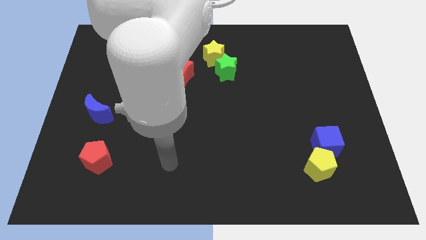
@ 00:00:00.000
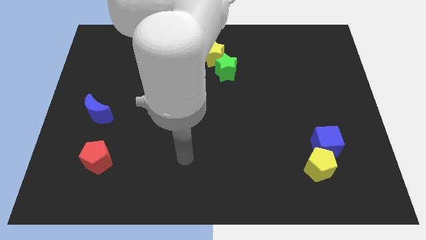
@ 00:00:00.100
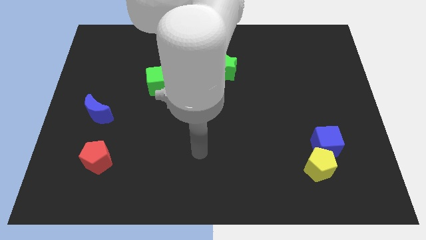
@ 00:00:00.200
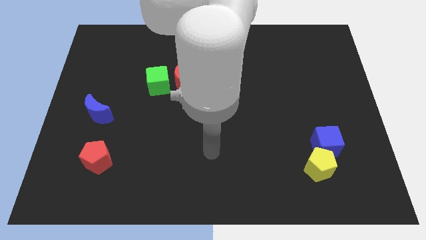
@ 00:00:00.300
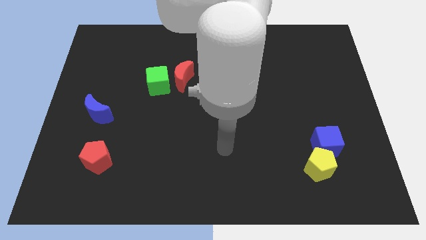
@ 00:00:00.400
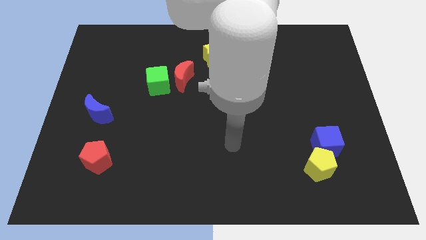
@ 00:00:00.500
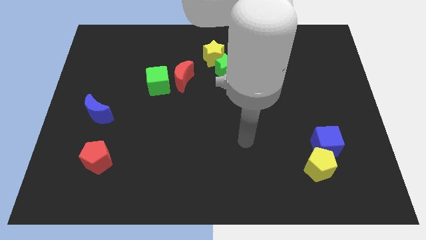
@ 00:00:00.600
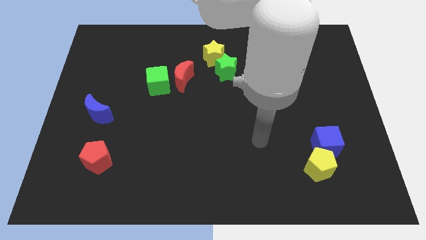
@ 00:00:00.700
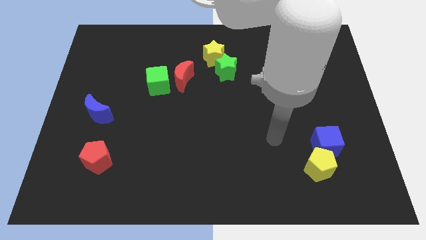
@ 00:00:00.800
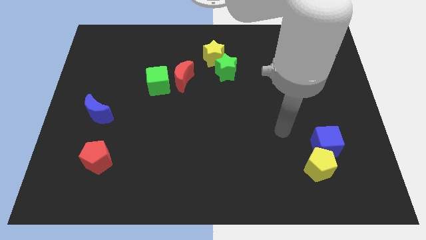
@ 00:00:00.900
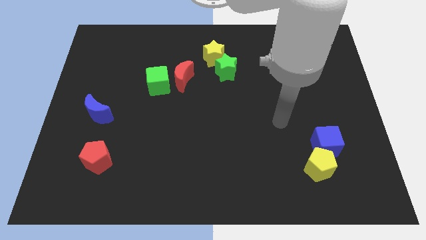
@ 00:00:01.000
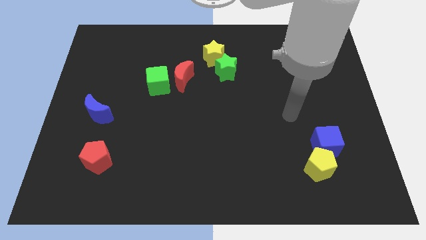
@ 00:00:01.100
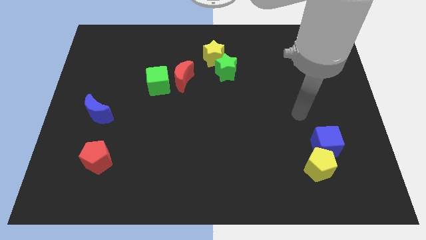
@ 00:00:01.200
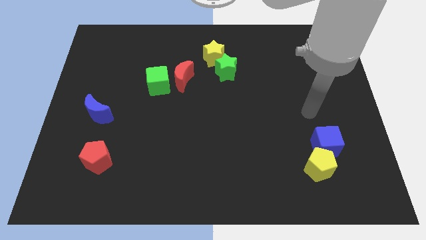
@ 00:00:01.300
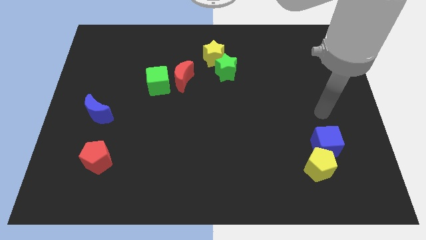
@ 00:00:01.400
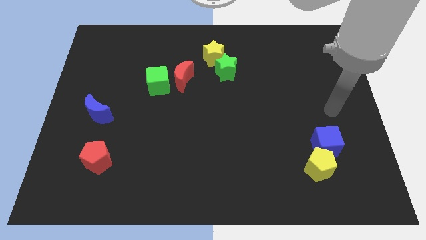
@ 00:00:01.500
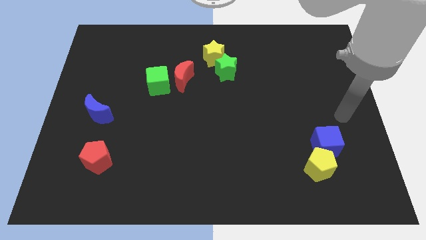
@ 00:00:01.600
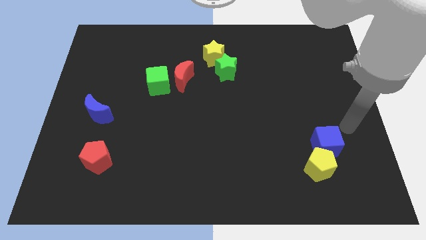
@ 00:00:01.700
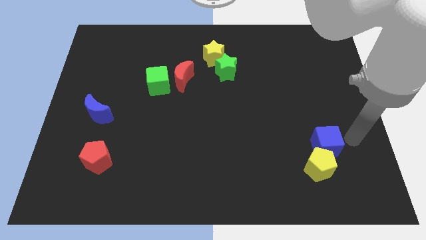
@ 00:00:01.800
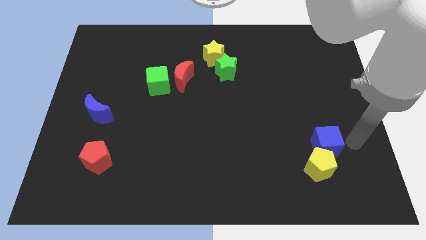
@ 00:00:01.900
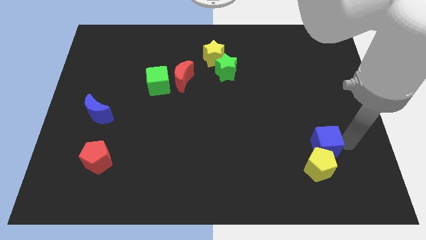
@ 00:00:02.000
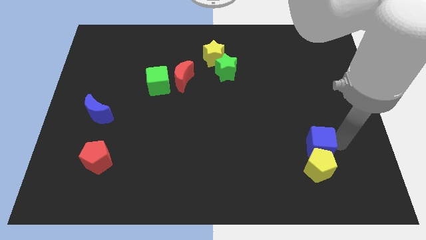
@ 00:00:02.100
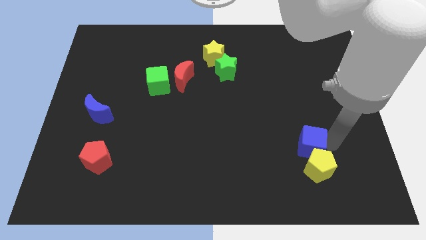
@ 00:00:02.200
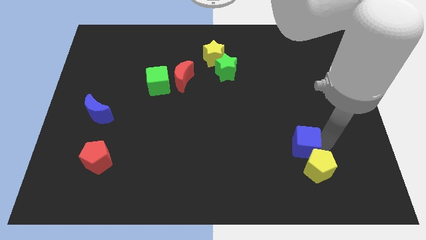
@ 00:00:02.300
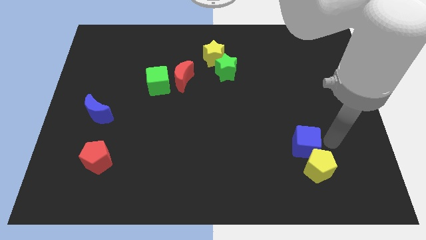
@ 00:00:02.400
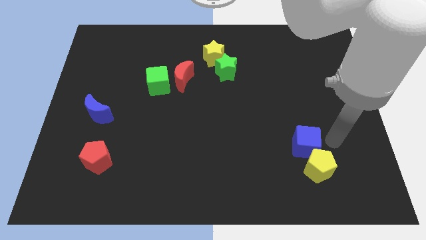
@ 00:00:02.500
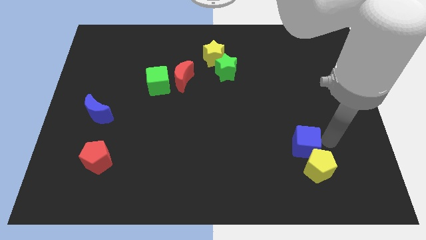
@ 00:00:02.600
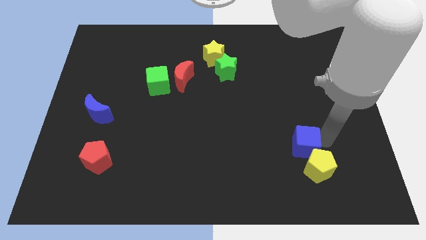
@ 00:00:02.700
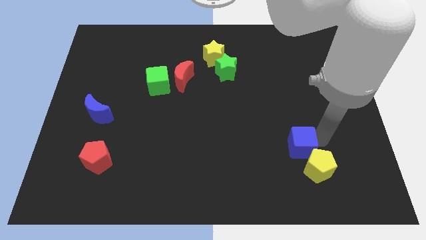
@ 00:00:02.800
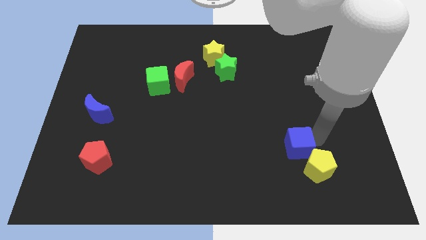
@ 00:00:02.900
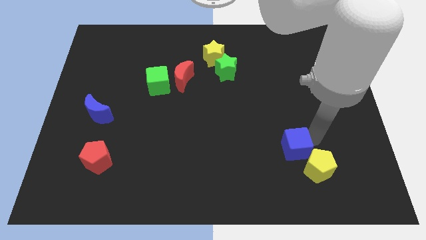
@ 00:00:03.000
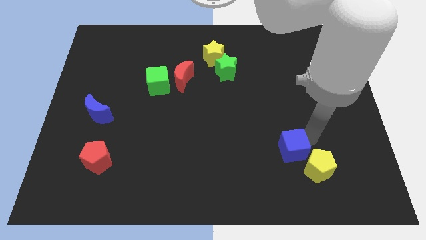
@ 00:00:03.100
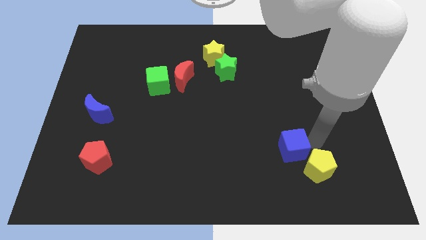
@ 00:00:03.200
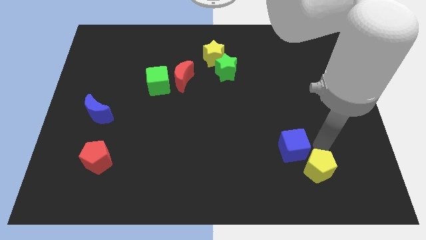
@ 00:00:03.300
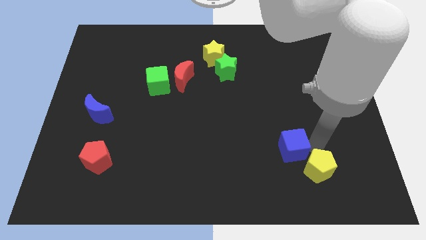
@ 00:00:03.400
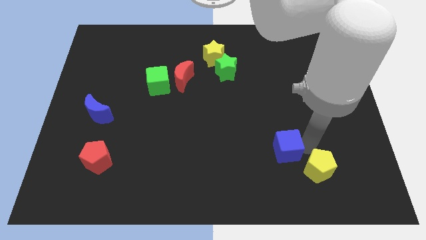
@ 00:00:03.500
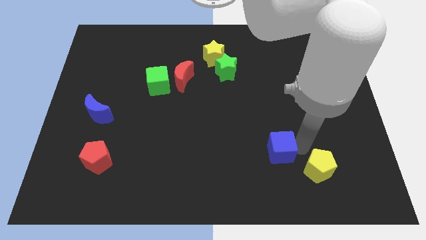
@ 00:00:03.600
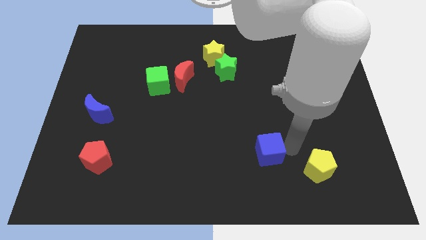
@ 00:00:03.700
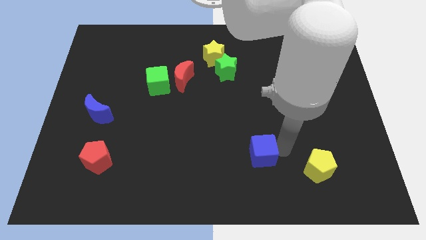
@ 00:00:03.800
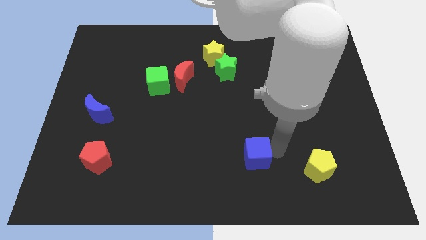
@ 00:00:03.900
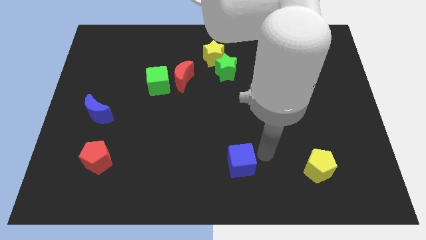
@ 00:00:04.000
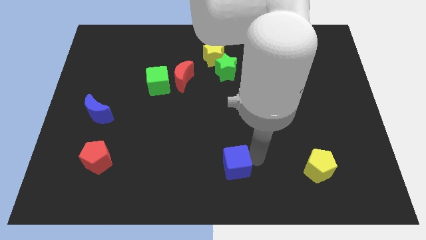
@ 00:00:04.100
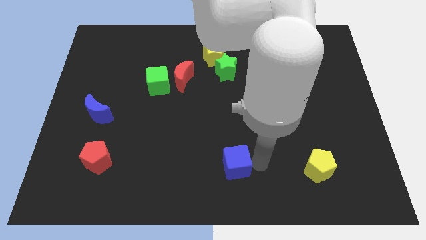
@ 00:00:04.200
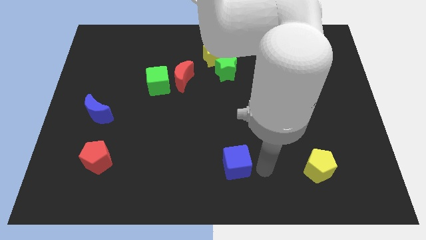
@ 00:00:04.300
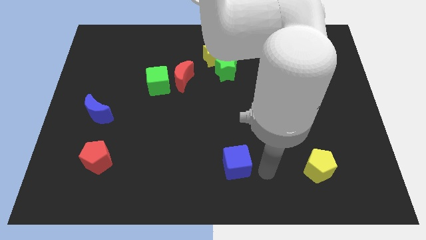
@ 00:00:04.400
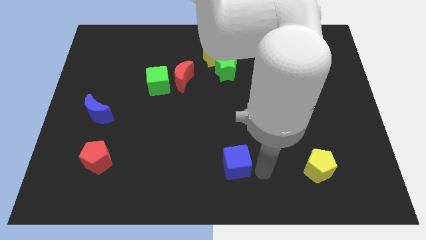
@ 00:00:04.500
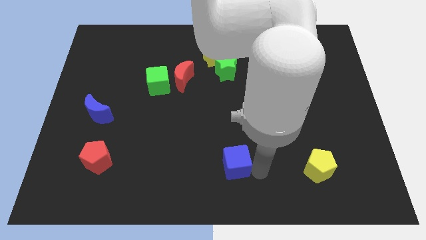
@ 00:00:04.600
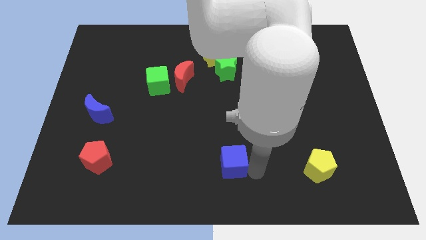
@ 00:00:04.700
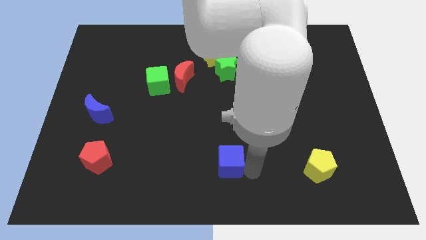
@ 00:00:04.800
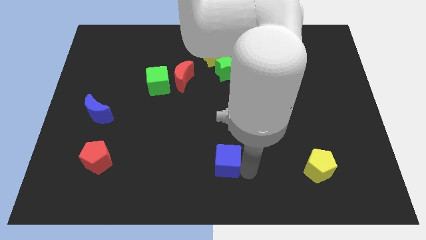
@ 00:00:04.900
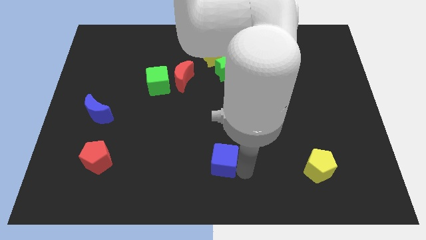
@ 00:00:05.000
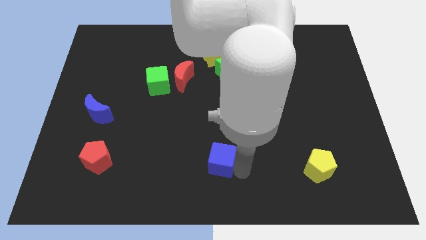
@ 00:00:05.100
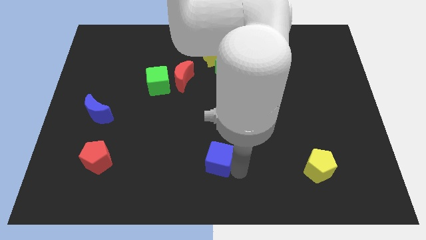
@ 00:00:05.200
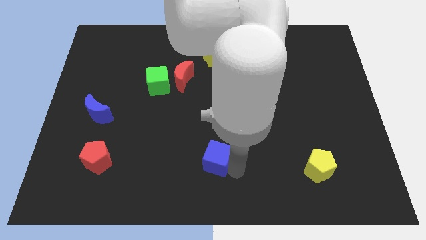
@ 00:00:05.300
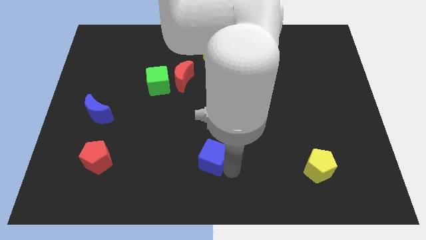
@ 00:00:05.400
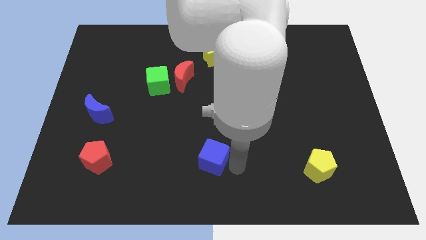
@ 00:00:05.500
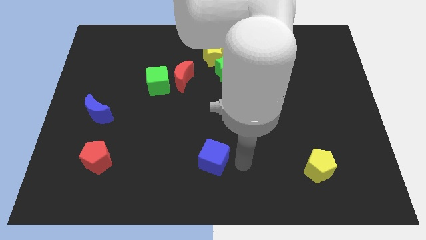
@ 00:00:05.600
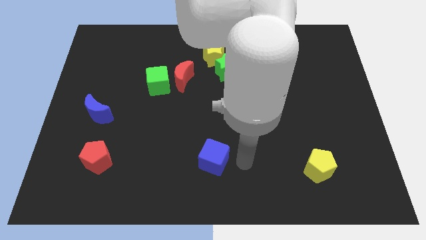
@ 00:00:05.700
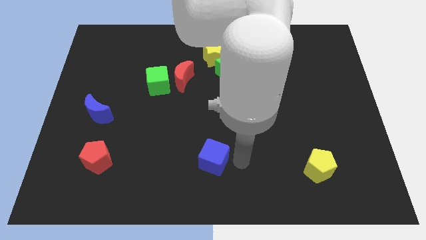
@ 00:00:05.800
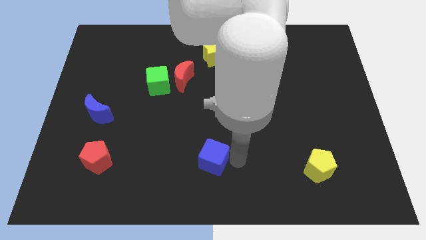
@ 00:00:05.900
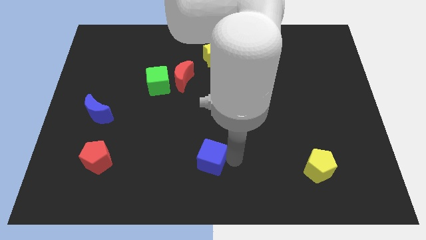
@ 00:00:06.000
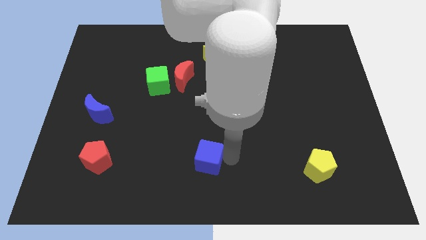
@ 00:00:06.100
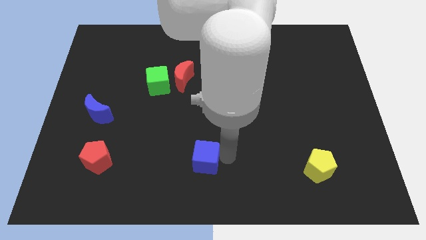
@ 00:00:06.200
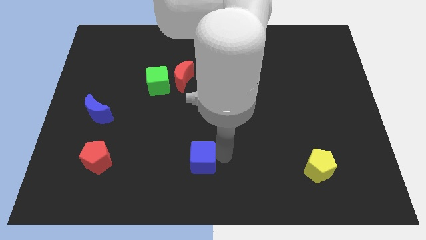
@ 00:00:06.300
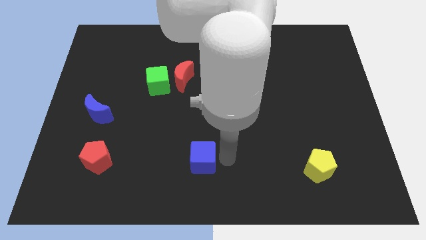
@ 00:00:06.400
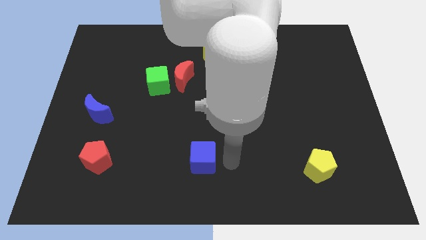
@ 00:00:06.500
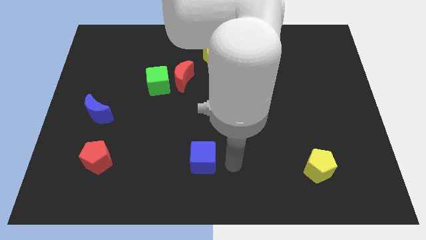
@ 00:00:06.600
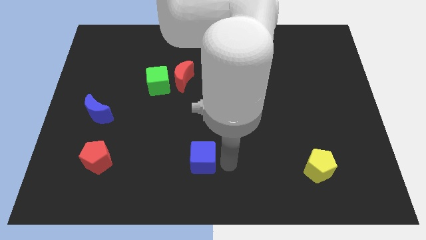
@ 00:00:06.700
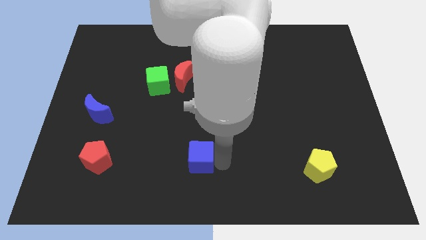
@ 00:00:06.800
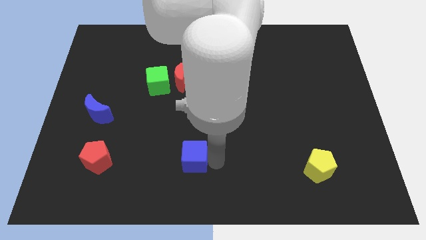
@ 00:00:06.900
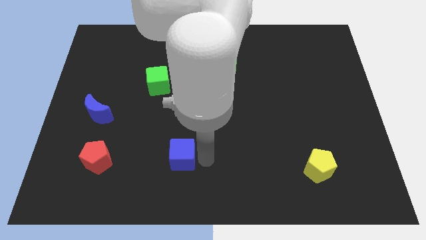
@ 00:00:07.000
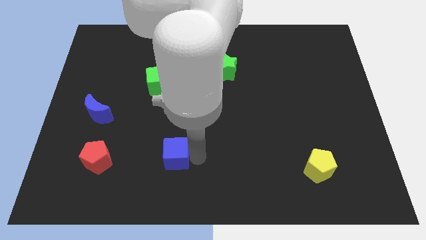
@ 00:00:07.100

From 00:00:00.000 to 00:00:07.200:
slide the blue cube to the right side of the red pentagon

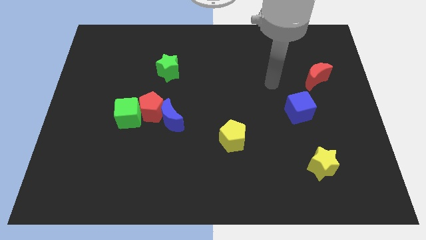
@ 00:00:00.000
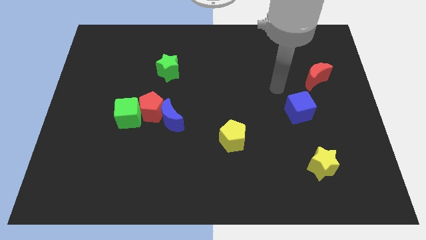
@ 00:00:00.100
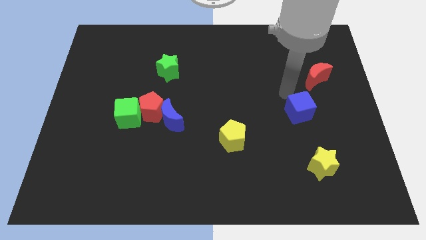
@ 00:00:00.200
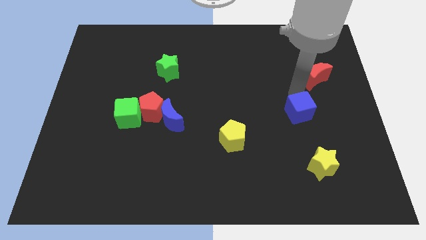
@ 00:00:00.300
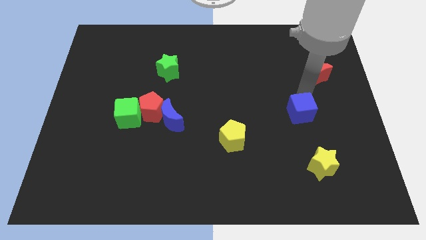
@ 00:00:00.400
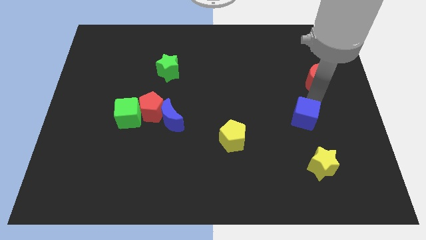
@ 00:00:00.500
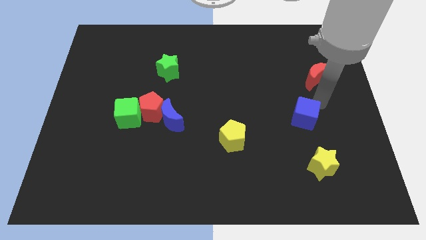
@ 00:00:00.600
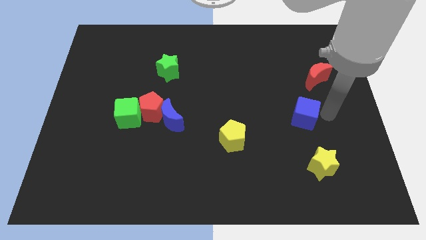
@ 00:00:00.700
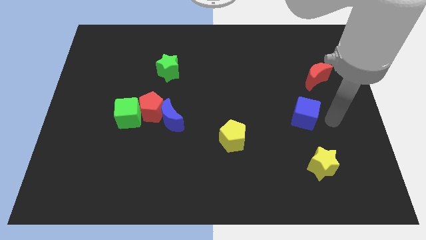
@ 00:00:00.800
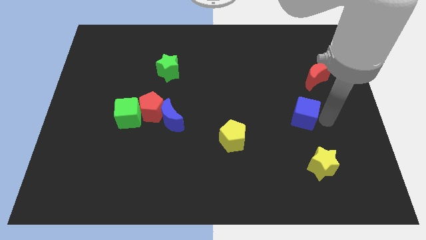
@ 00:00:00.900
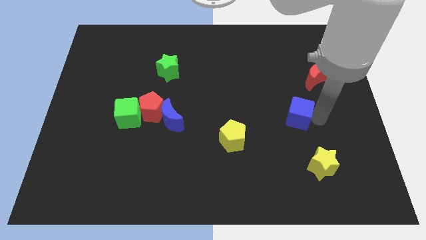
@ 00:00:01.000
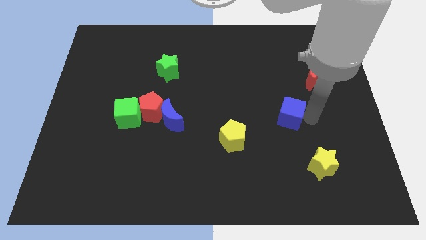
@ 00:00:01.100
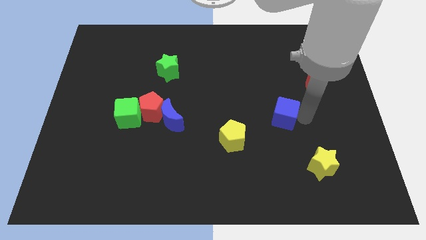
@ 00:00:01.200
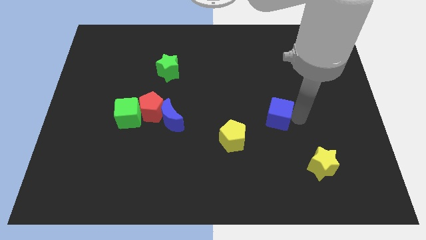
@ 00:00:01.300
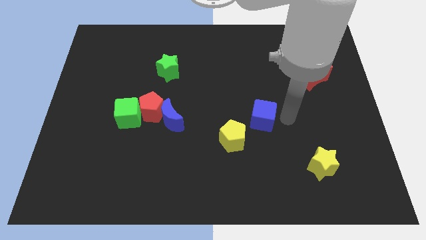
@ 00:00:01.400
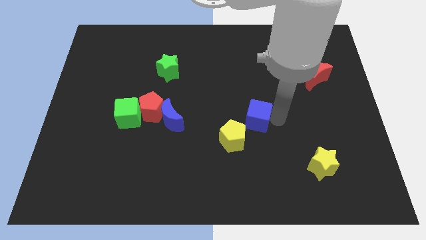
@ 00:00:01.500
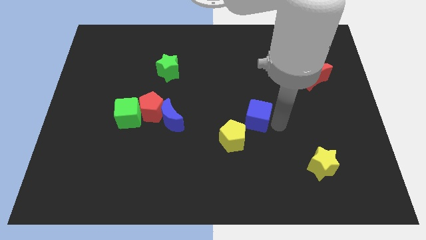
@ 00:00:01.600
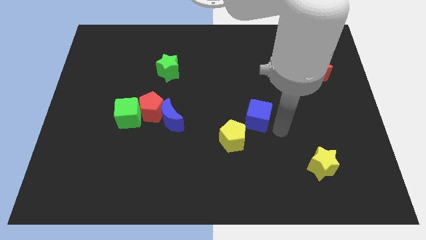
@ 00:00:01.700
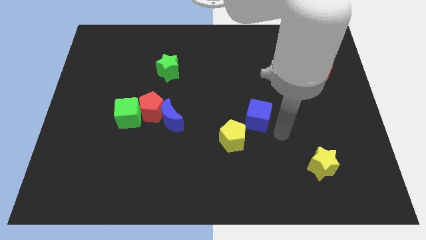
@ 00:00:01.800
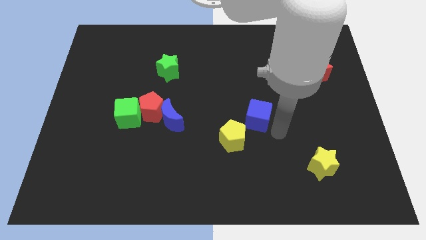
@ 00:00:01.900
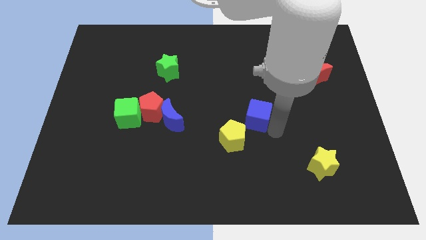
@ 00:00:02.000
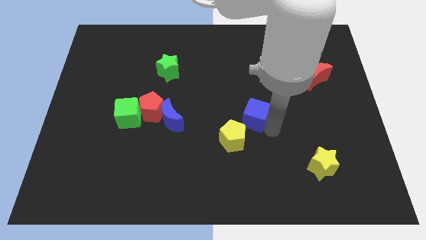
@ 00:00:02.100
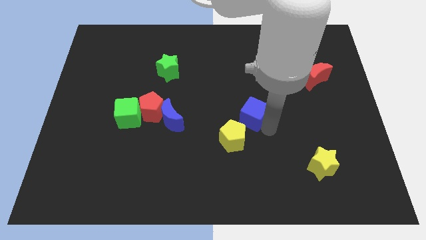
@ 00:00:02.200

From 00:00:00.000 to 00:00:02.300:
put the blue cube to the top of the yellow pentagon
